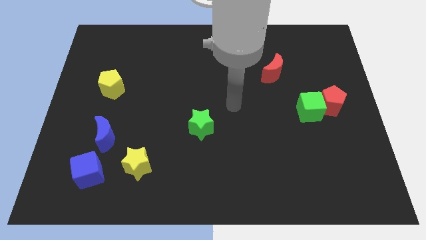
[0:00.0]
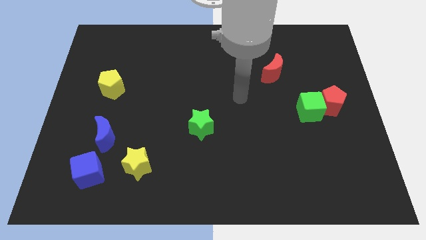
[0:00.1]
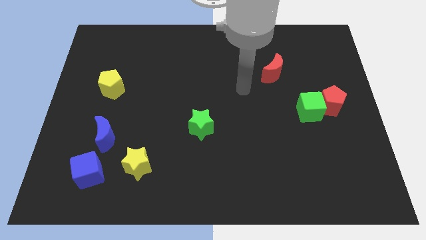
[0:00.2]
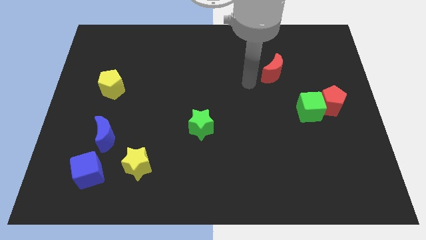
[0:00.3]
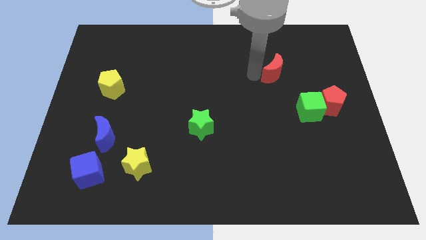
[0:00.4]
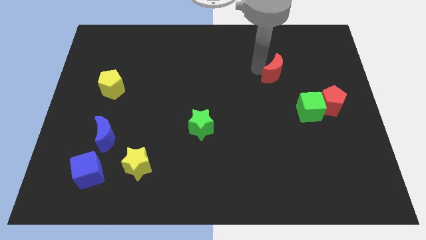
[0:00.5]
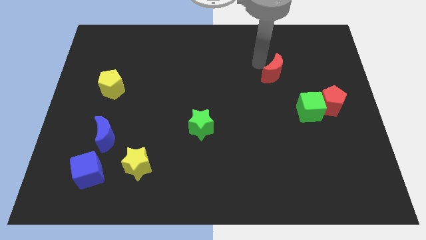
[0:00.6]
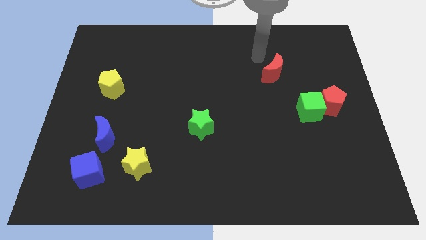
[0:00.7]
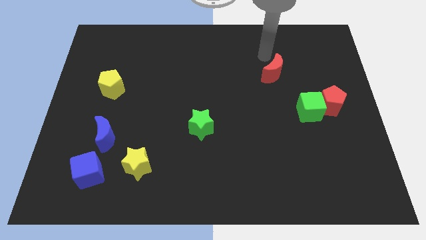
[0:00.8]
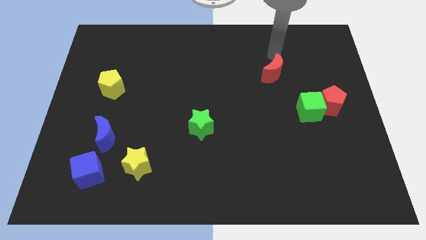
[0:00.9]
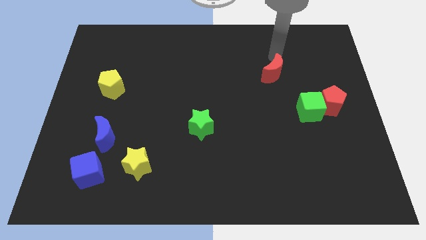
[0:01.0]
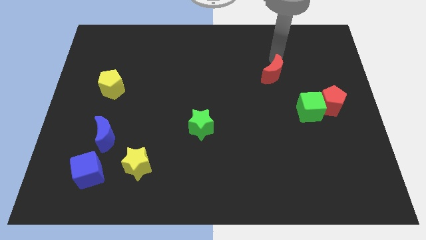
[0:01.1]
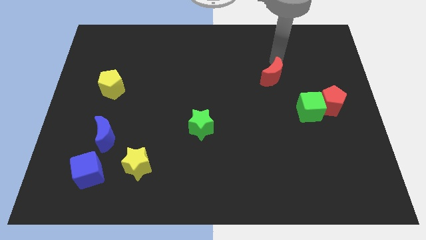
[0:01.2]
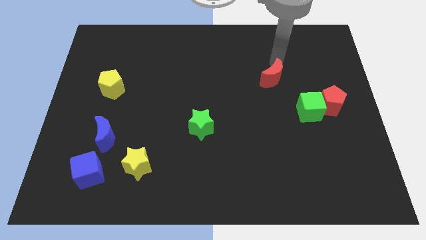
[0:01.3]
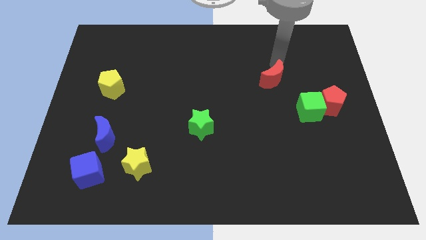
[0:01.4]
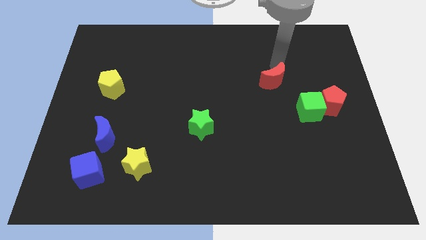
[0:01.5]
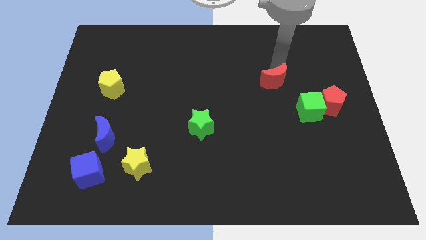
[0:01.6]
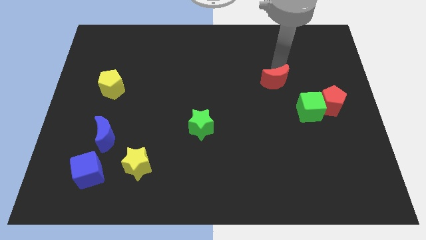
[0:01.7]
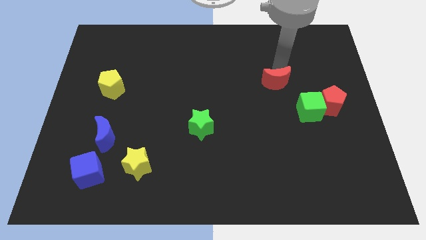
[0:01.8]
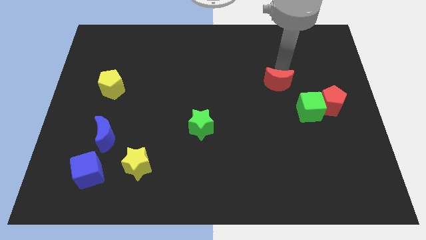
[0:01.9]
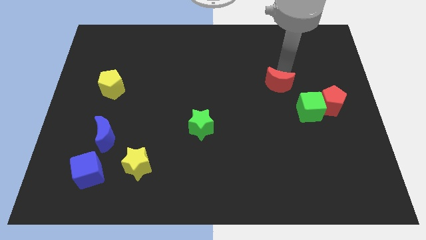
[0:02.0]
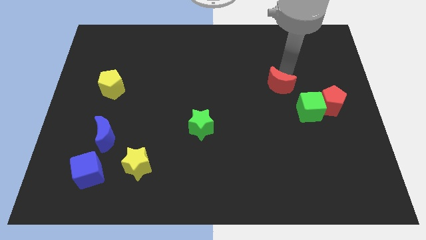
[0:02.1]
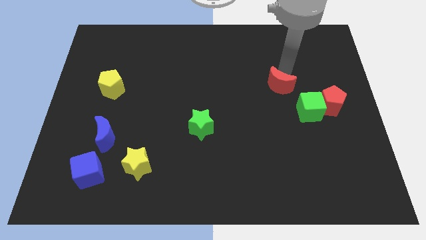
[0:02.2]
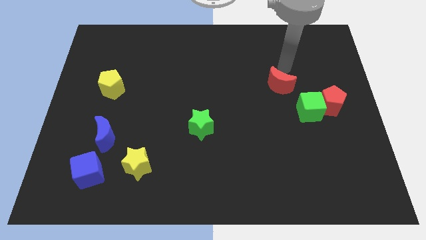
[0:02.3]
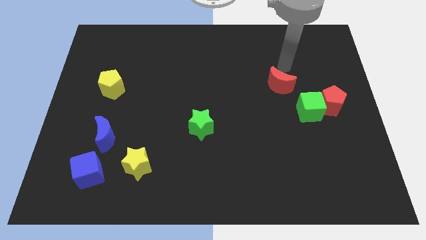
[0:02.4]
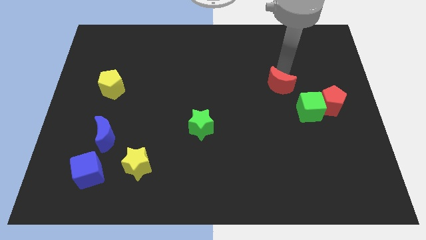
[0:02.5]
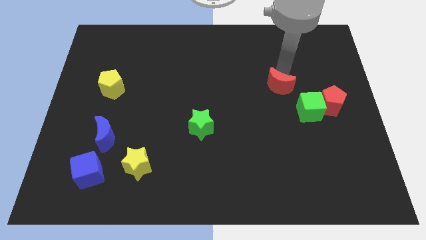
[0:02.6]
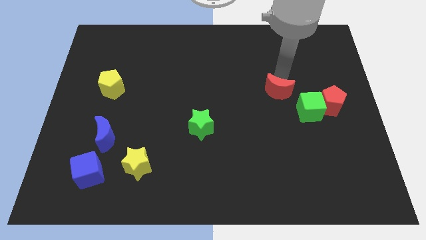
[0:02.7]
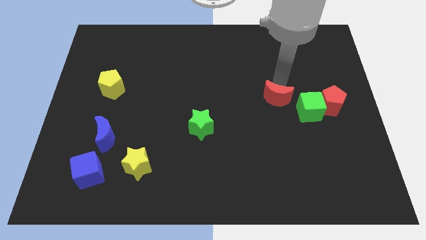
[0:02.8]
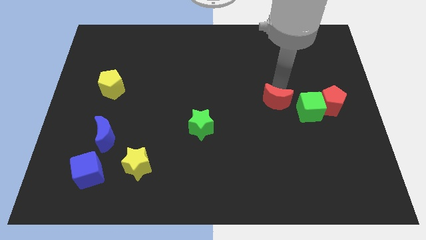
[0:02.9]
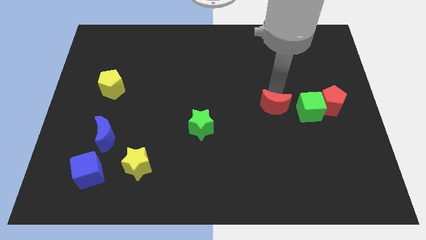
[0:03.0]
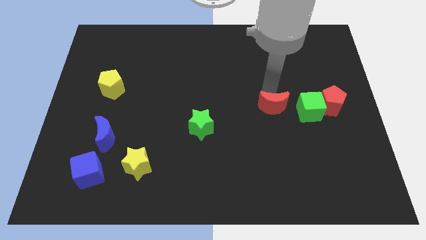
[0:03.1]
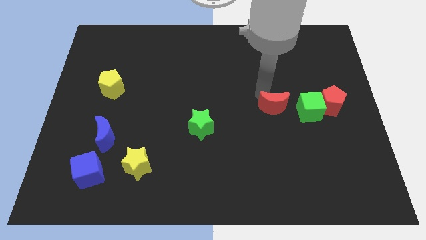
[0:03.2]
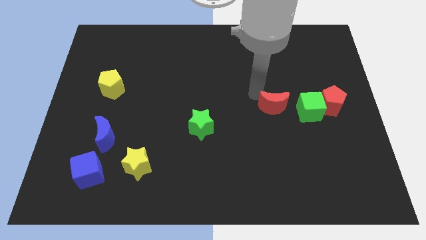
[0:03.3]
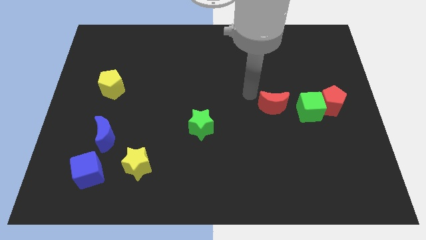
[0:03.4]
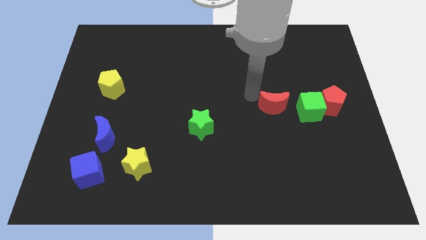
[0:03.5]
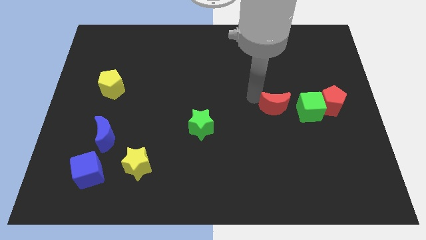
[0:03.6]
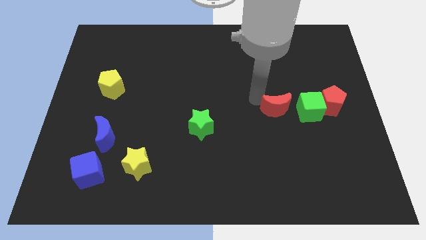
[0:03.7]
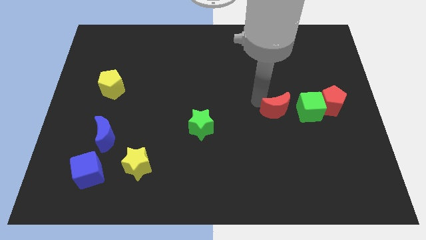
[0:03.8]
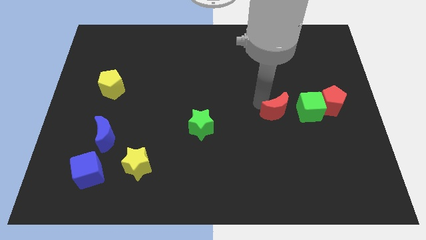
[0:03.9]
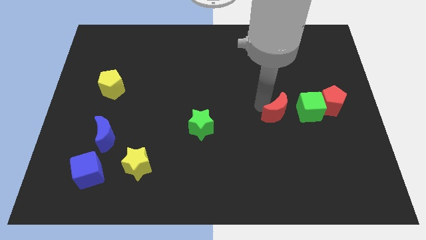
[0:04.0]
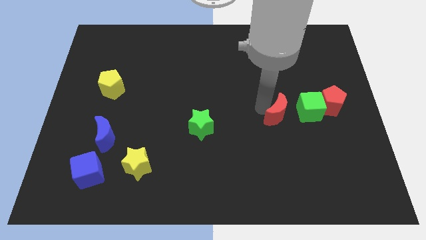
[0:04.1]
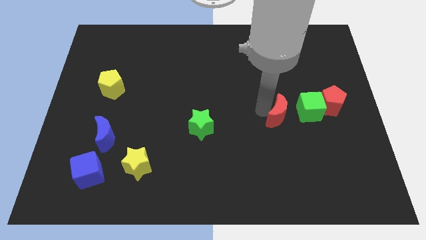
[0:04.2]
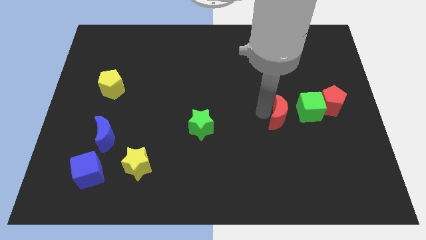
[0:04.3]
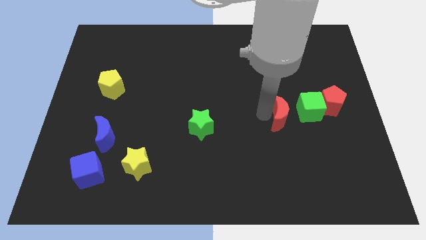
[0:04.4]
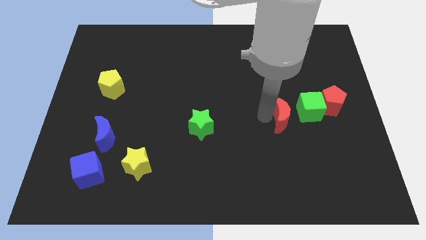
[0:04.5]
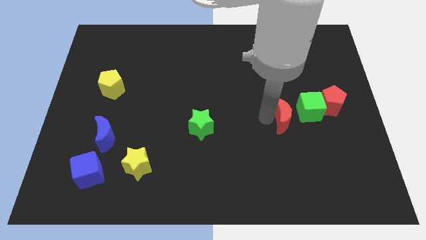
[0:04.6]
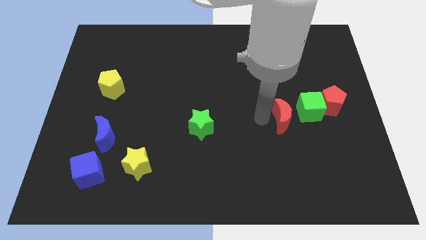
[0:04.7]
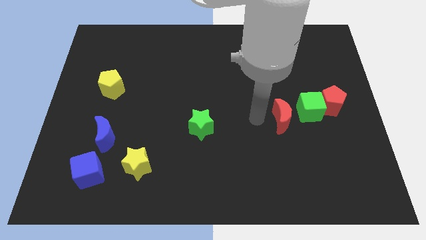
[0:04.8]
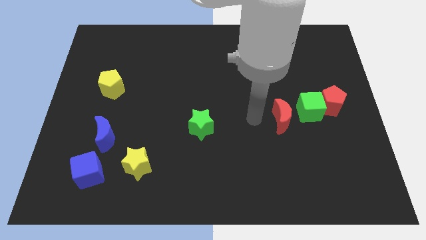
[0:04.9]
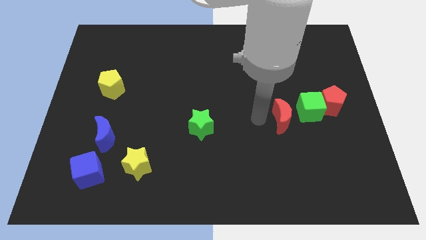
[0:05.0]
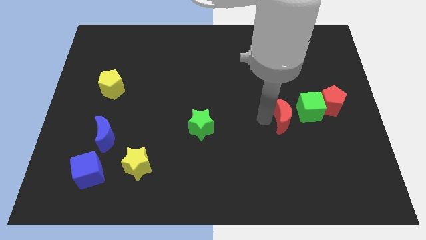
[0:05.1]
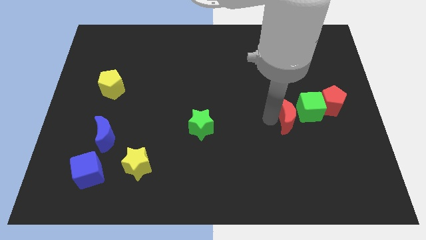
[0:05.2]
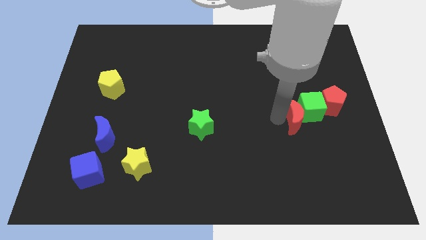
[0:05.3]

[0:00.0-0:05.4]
push the red moon diagonally down and to the left of the red pentagon

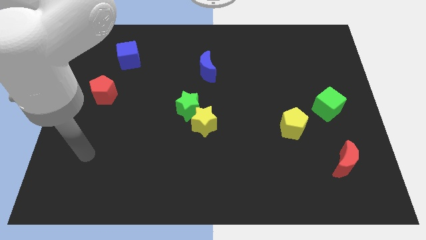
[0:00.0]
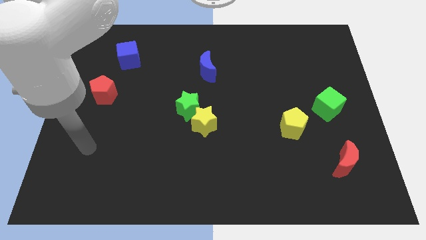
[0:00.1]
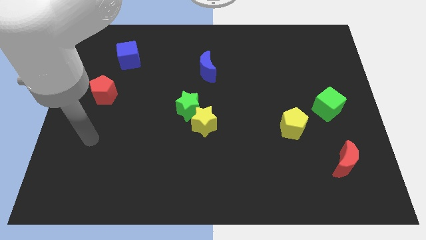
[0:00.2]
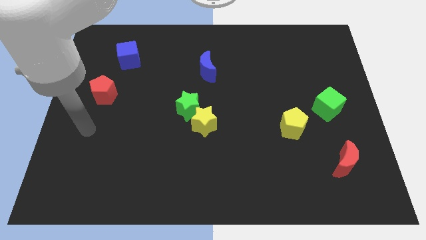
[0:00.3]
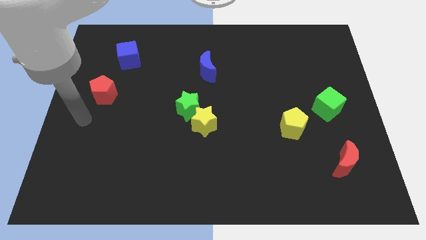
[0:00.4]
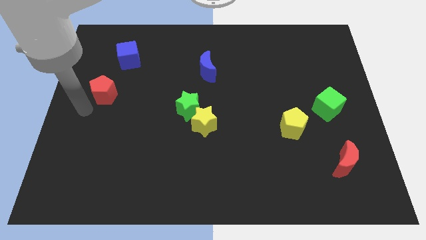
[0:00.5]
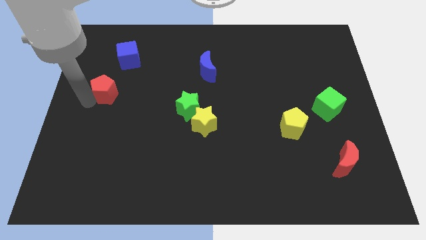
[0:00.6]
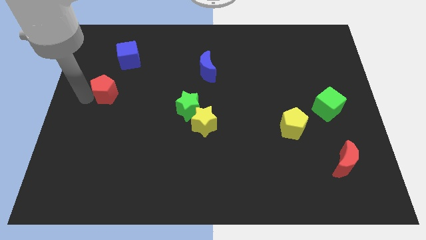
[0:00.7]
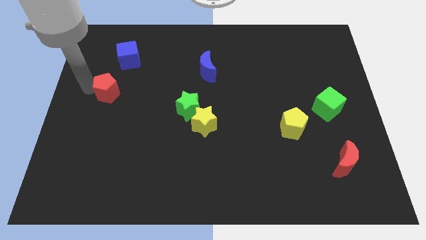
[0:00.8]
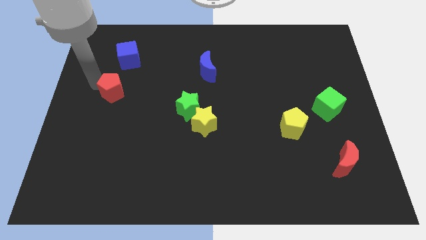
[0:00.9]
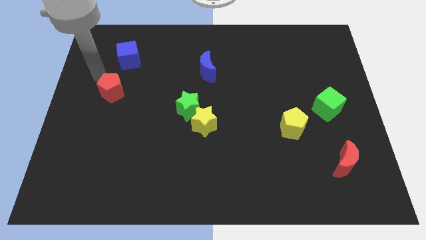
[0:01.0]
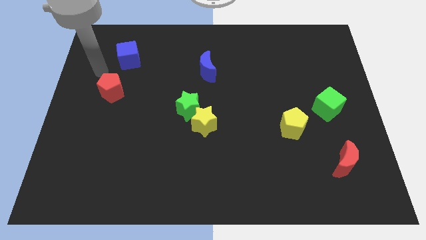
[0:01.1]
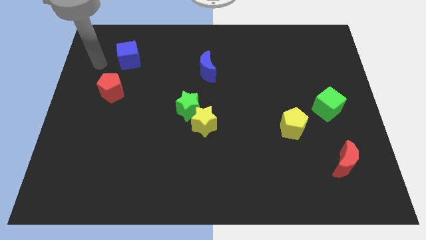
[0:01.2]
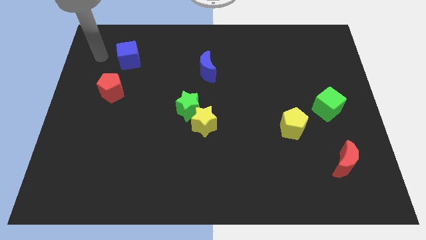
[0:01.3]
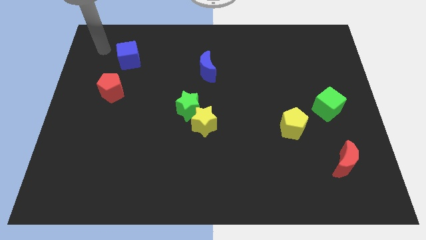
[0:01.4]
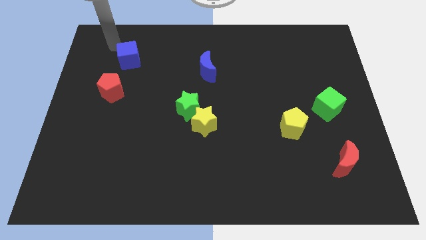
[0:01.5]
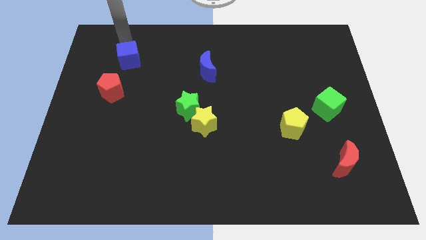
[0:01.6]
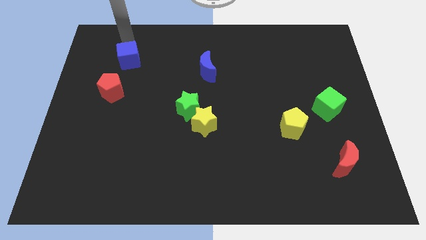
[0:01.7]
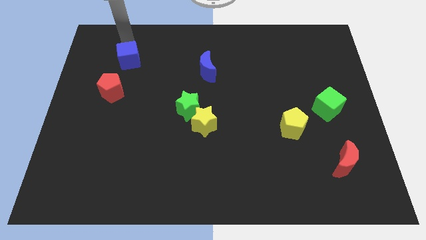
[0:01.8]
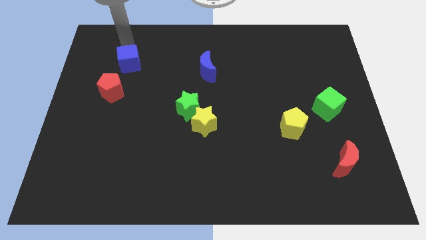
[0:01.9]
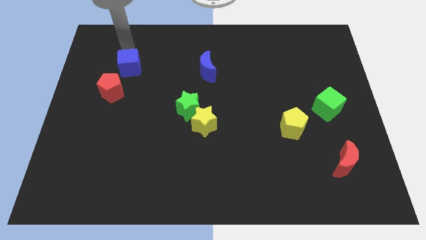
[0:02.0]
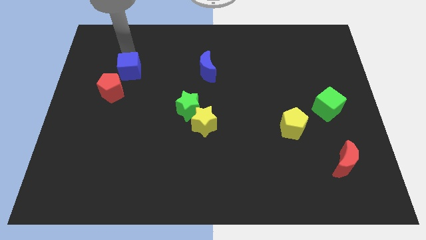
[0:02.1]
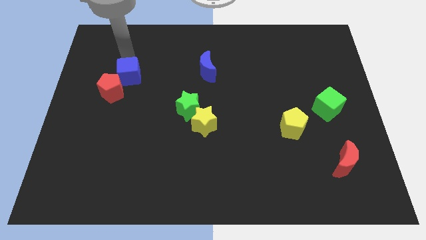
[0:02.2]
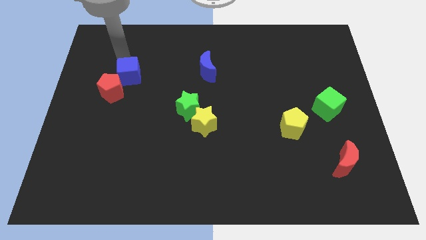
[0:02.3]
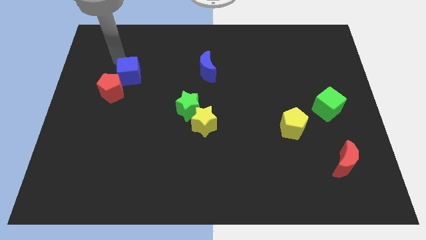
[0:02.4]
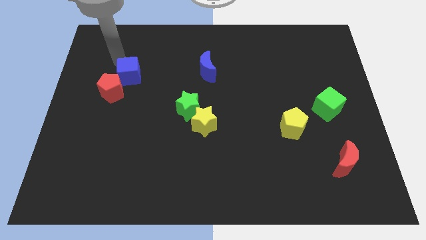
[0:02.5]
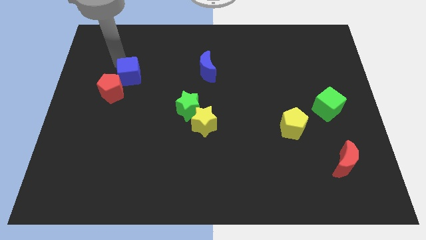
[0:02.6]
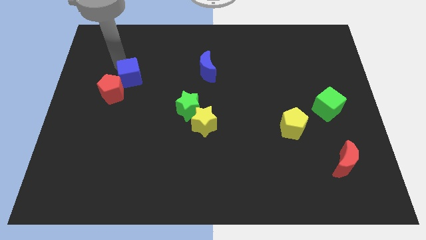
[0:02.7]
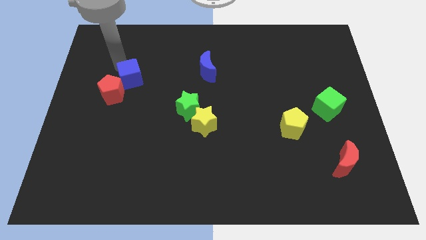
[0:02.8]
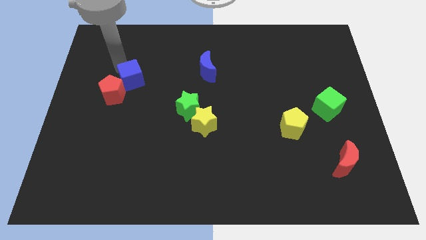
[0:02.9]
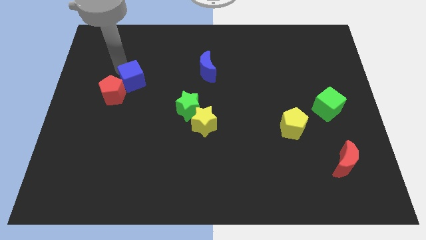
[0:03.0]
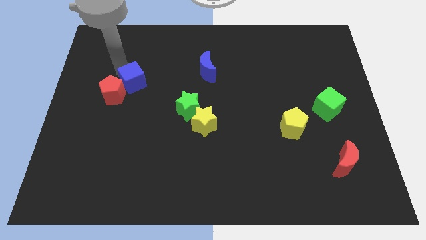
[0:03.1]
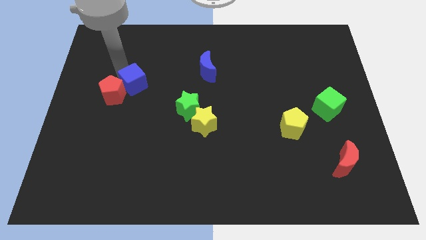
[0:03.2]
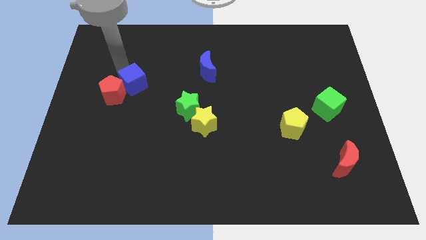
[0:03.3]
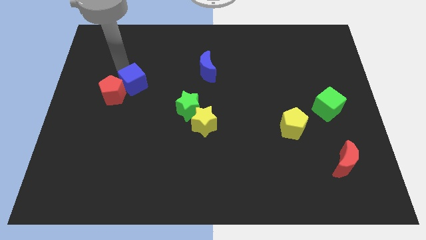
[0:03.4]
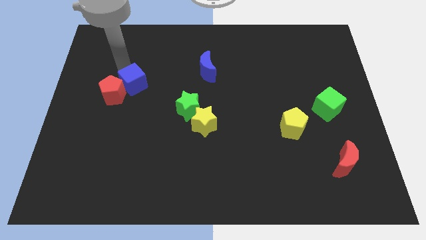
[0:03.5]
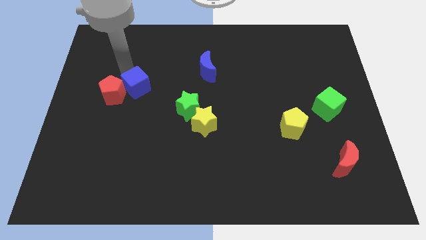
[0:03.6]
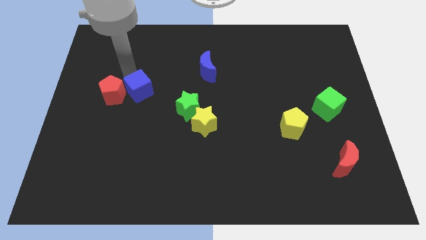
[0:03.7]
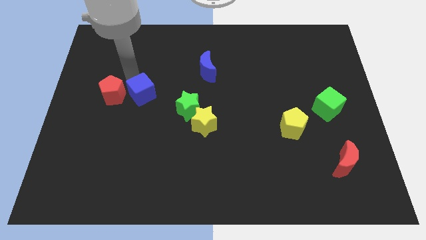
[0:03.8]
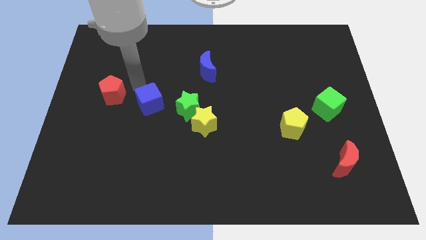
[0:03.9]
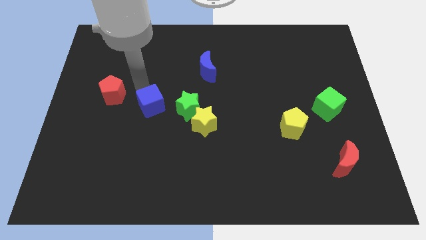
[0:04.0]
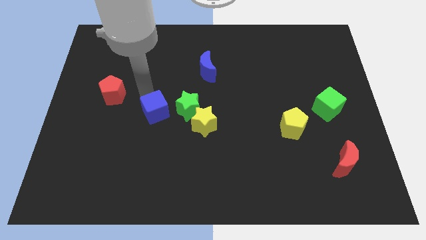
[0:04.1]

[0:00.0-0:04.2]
push the blue cube to the left side of the yellow star
